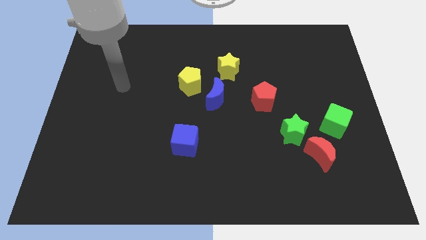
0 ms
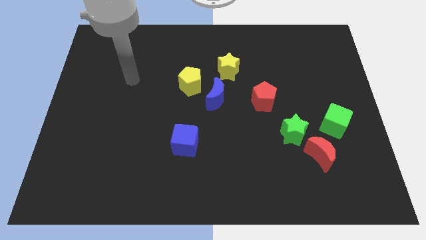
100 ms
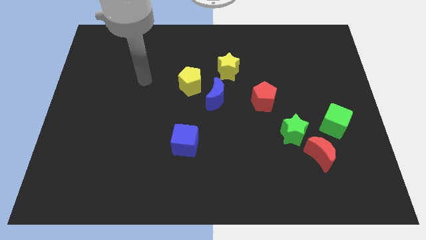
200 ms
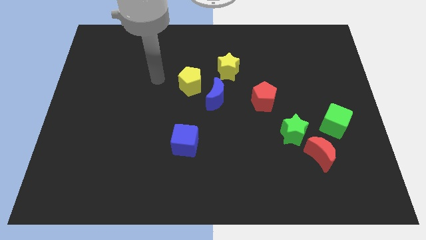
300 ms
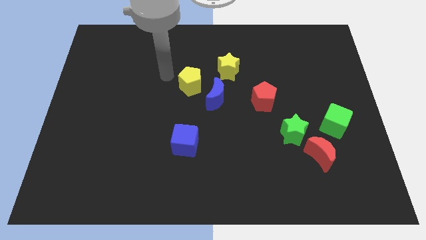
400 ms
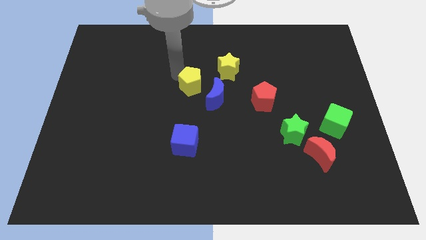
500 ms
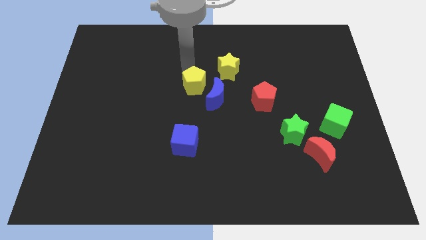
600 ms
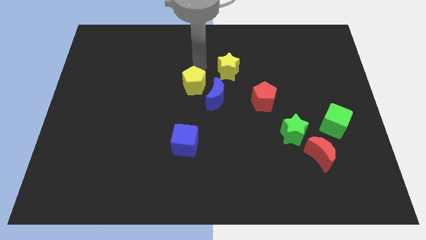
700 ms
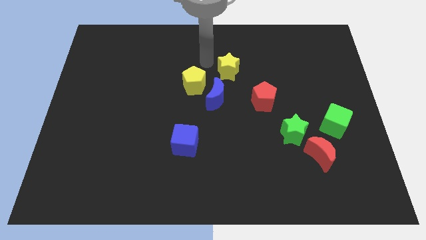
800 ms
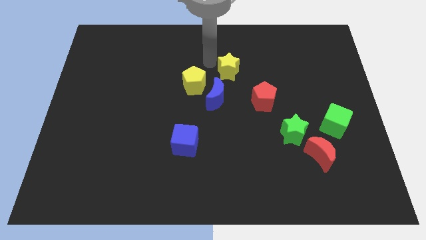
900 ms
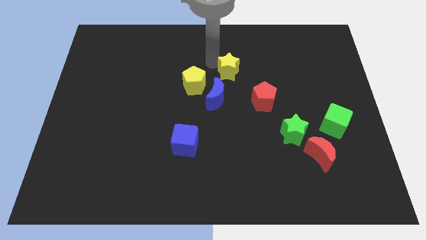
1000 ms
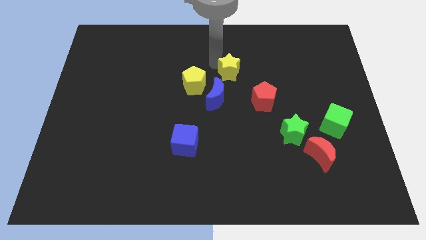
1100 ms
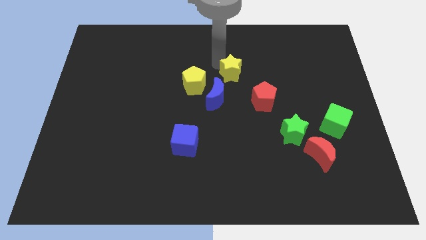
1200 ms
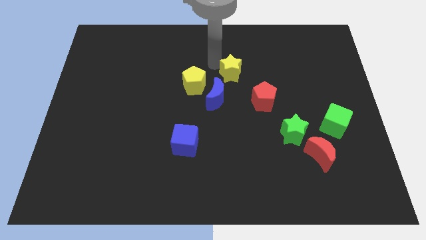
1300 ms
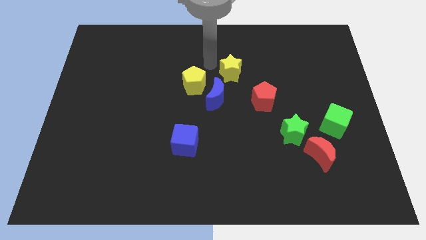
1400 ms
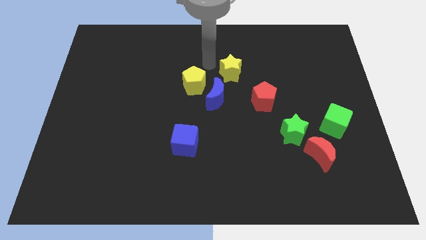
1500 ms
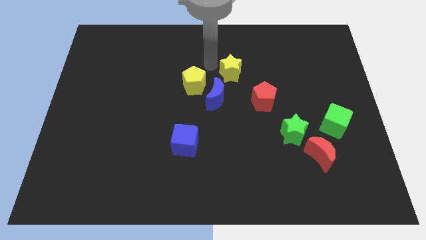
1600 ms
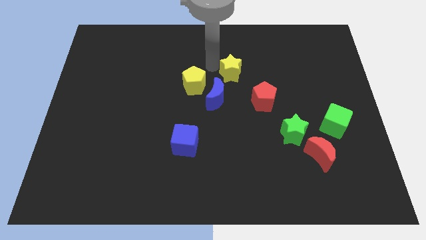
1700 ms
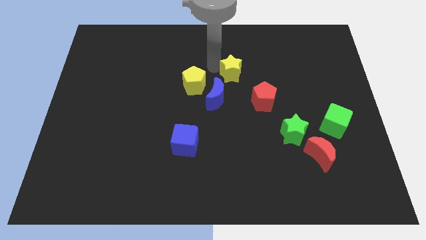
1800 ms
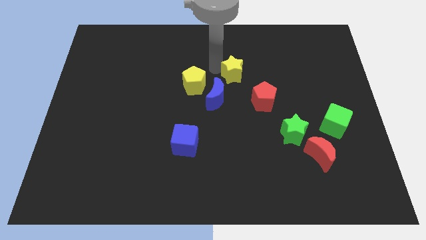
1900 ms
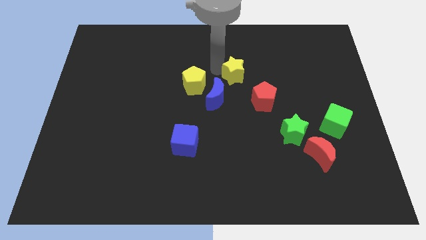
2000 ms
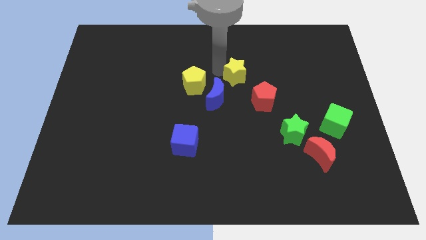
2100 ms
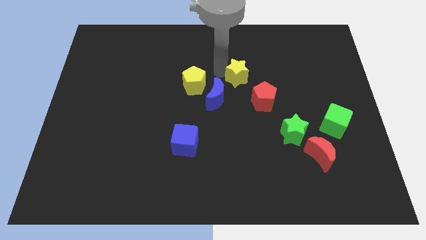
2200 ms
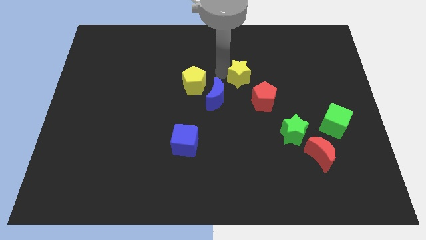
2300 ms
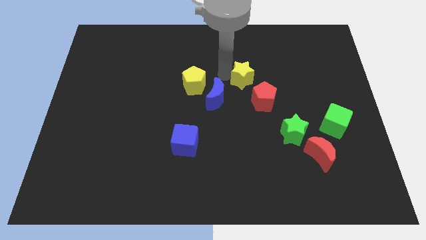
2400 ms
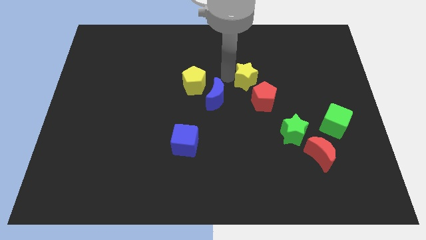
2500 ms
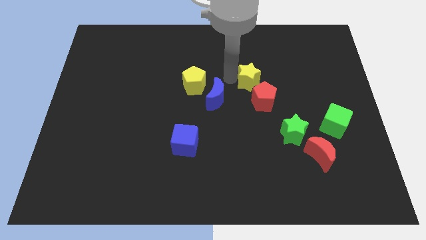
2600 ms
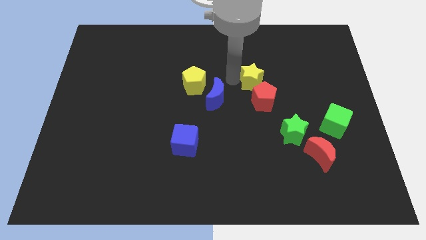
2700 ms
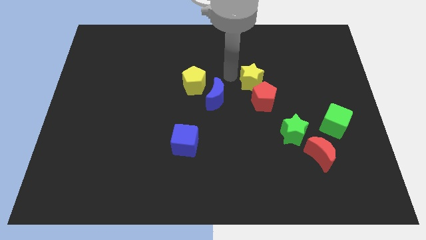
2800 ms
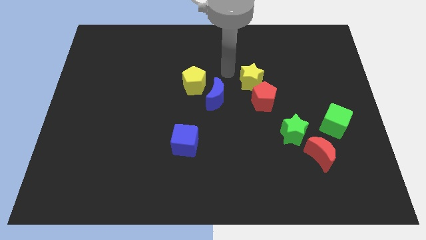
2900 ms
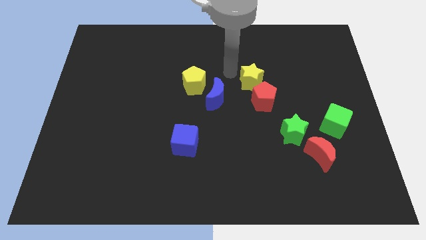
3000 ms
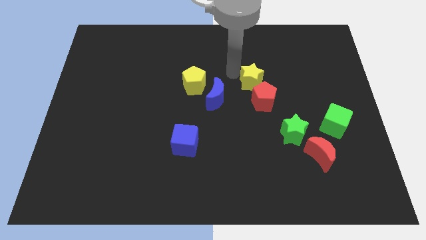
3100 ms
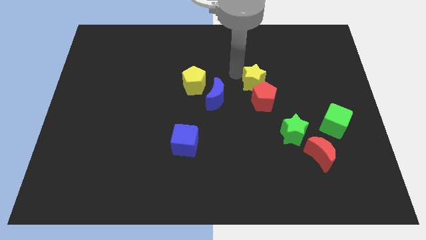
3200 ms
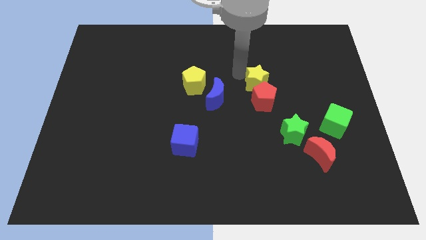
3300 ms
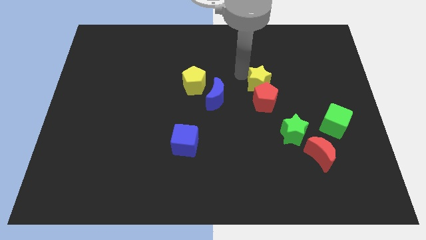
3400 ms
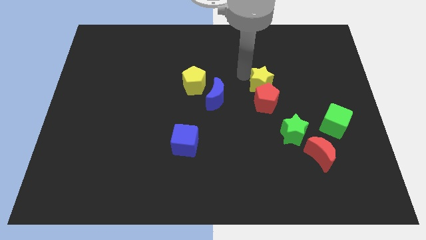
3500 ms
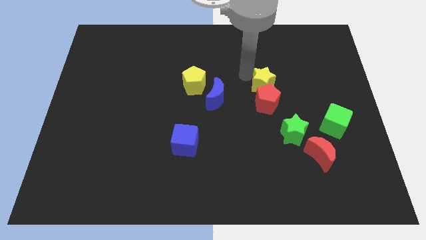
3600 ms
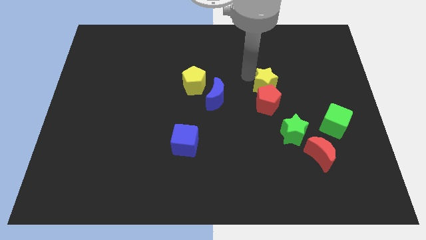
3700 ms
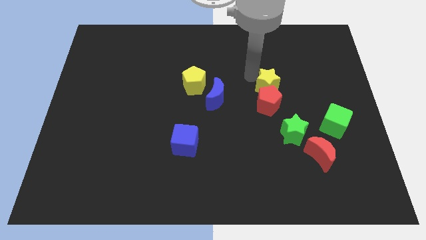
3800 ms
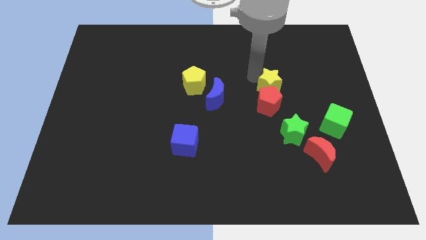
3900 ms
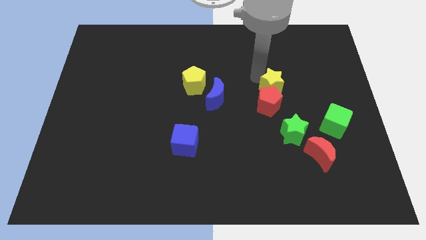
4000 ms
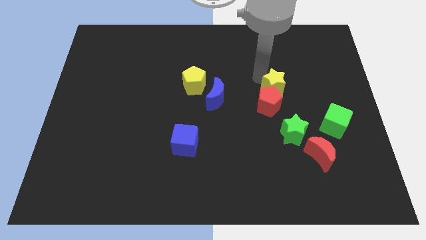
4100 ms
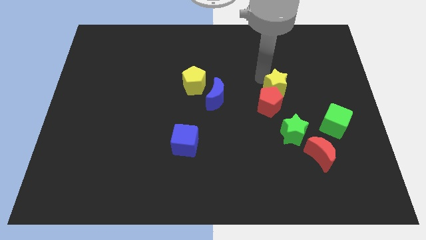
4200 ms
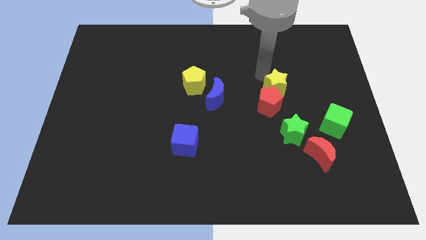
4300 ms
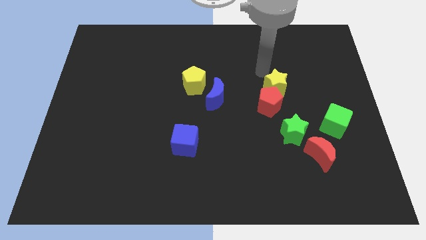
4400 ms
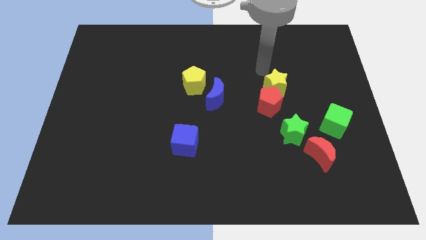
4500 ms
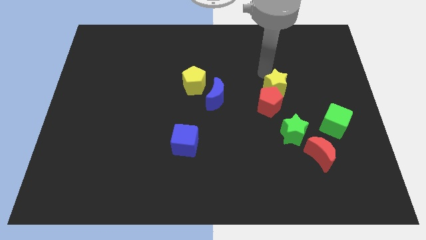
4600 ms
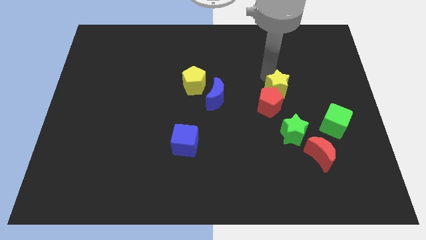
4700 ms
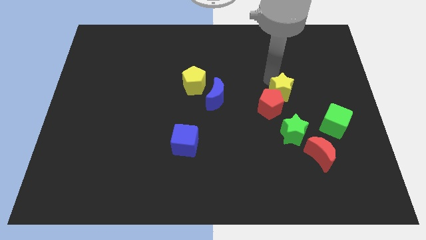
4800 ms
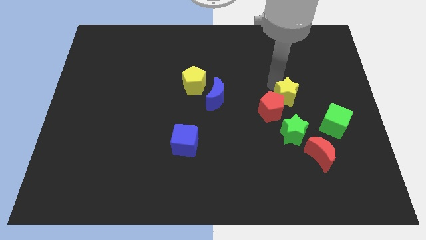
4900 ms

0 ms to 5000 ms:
put the yellow star diagonally up and to the left of the green cube

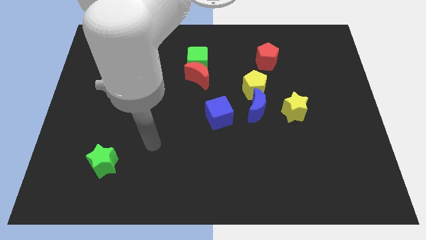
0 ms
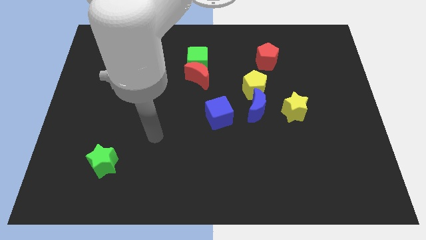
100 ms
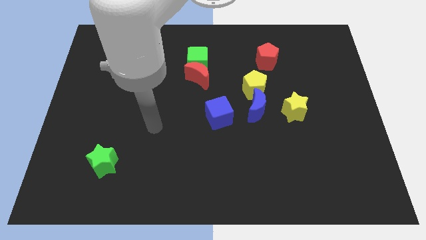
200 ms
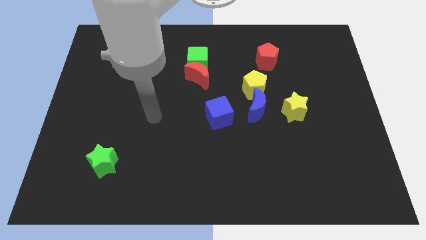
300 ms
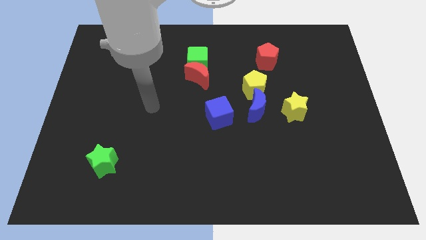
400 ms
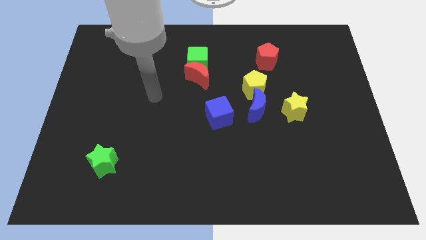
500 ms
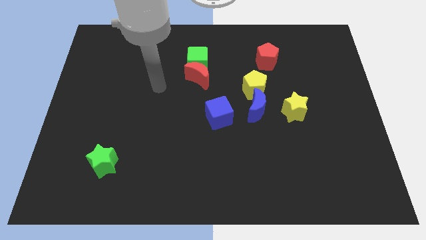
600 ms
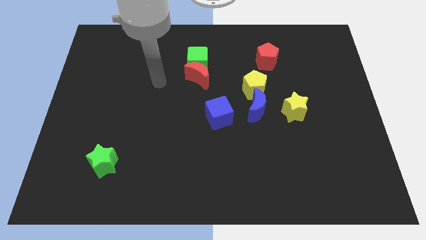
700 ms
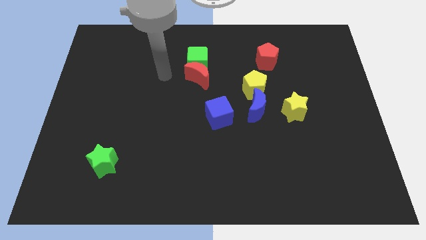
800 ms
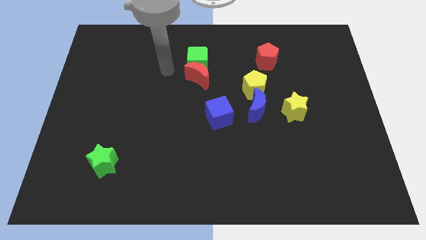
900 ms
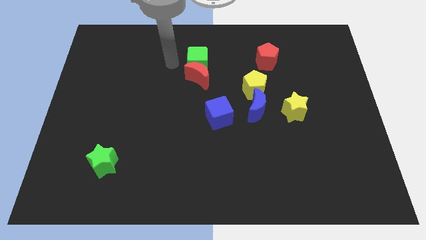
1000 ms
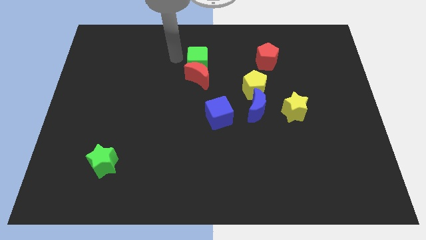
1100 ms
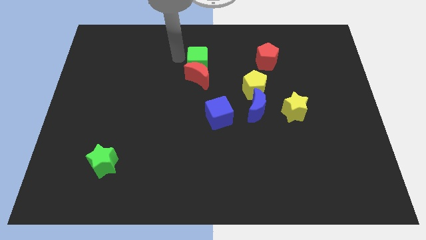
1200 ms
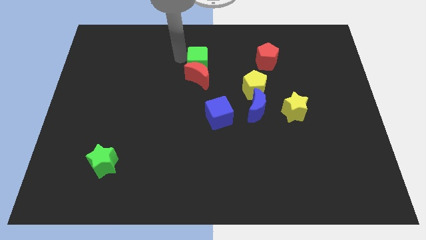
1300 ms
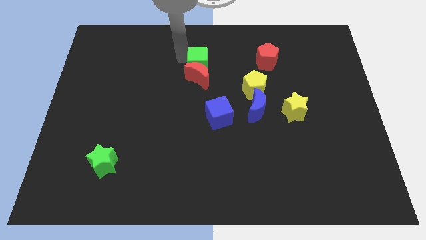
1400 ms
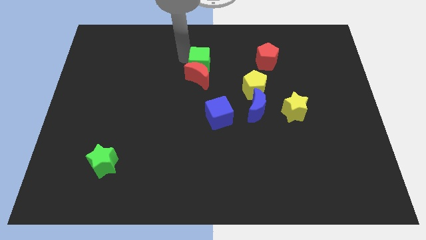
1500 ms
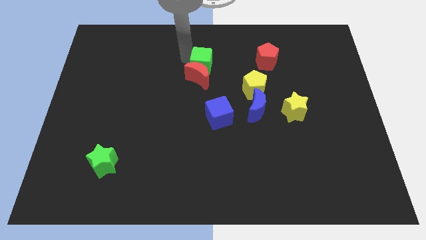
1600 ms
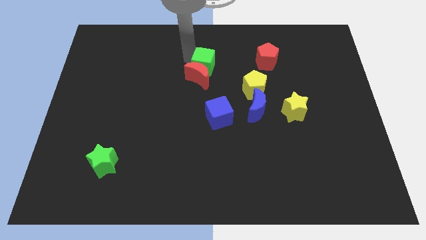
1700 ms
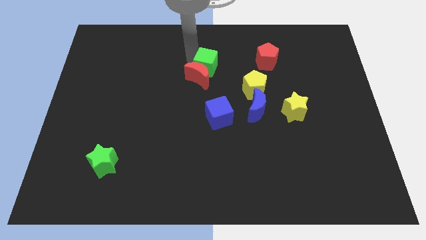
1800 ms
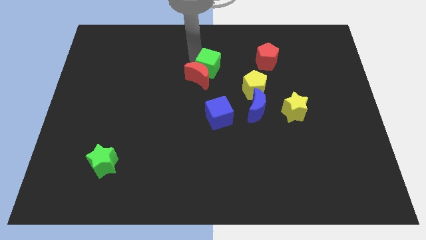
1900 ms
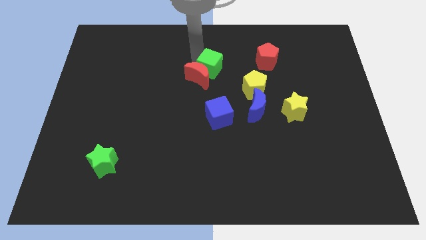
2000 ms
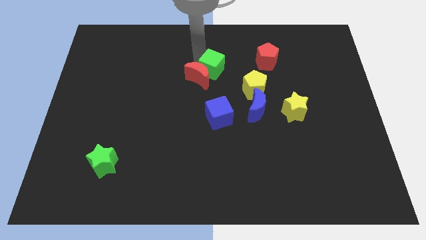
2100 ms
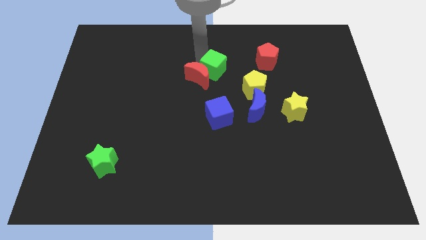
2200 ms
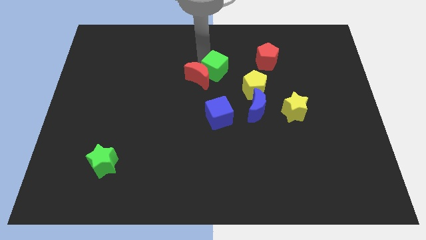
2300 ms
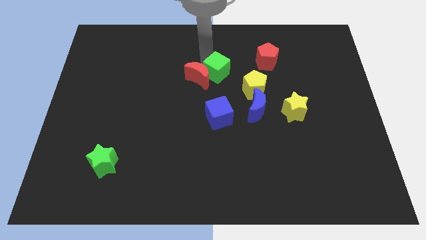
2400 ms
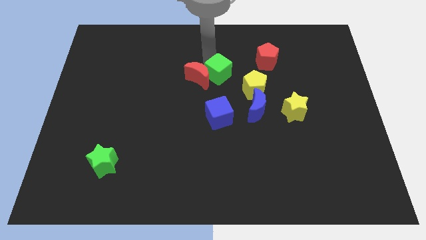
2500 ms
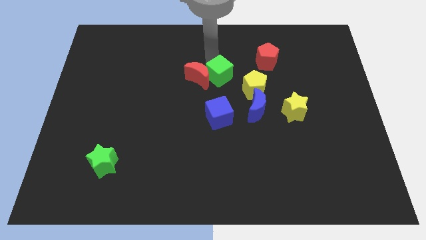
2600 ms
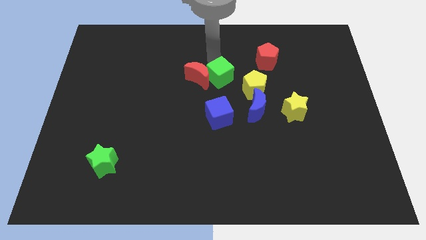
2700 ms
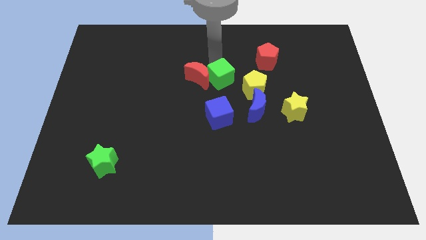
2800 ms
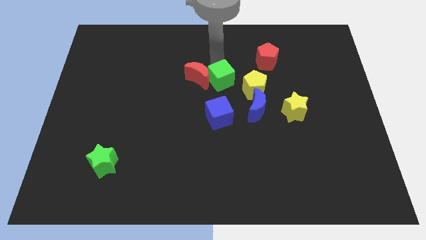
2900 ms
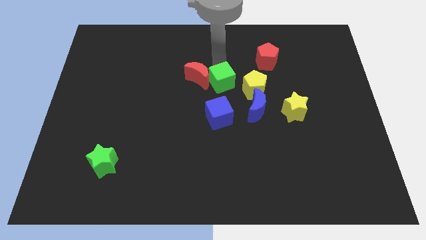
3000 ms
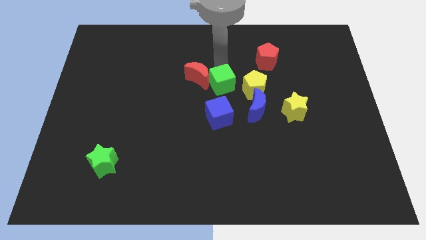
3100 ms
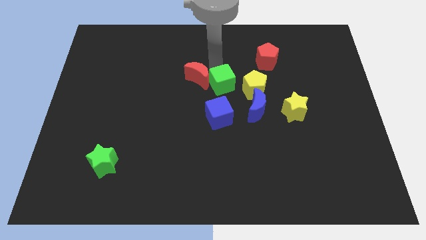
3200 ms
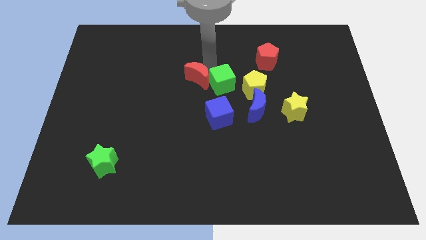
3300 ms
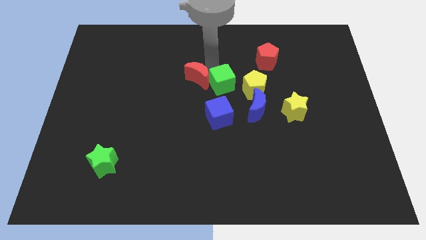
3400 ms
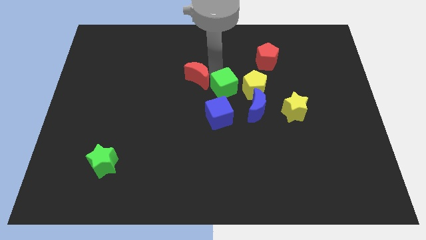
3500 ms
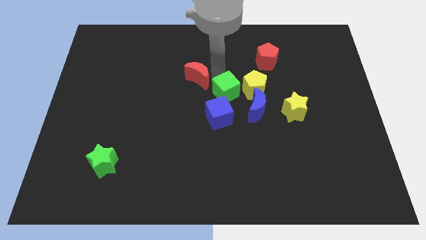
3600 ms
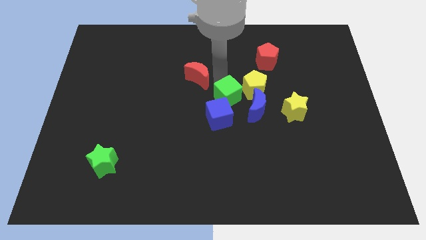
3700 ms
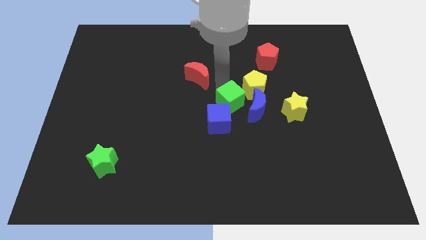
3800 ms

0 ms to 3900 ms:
slide the green cube to the left of the yellow star
